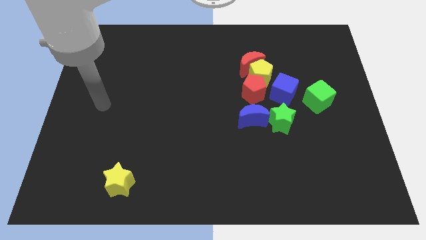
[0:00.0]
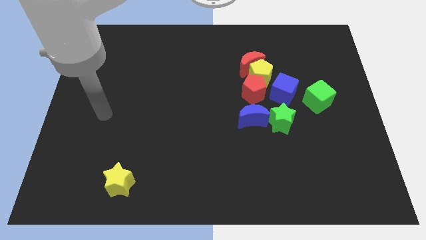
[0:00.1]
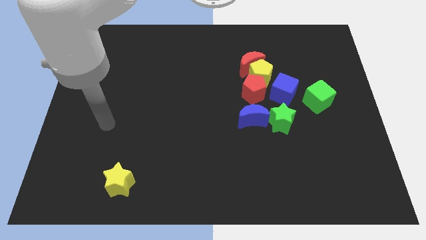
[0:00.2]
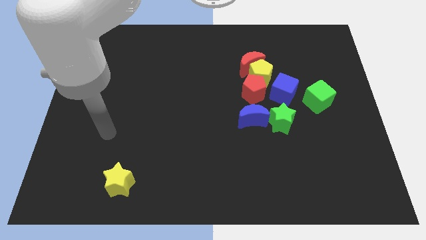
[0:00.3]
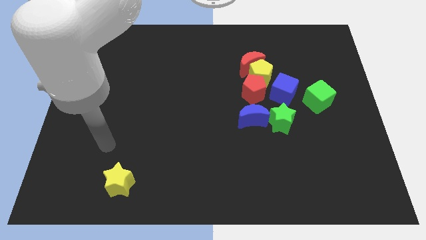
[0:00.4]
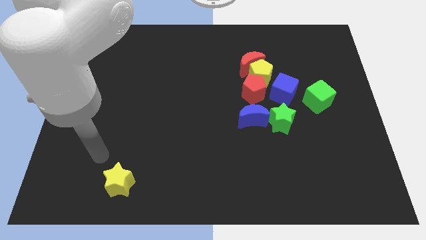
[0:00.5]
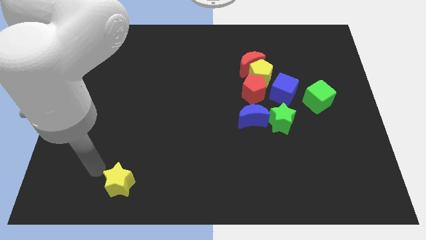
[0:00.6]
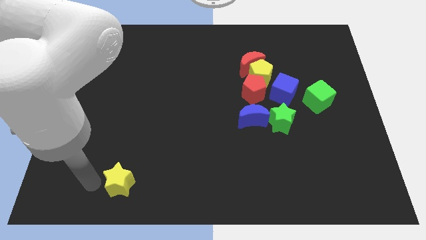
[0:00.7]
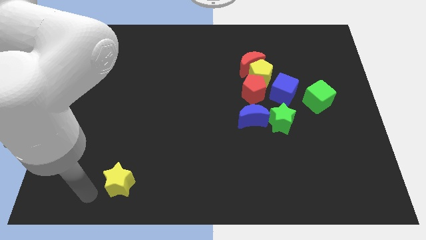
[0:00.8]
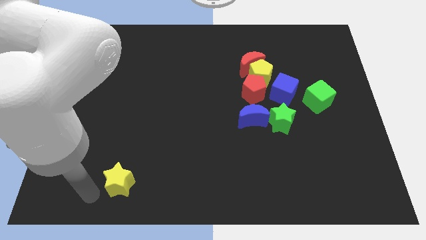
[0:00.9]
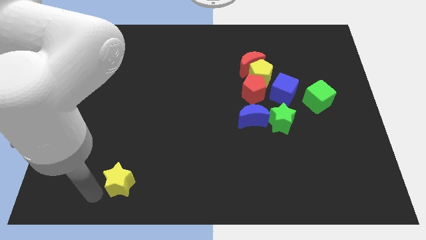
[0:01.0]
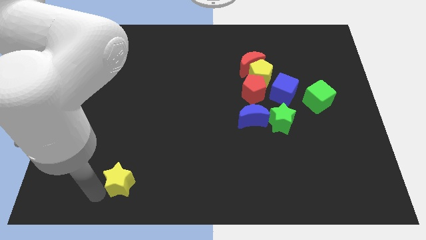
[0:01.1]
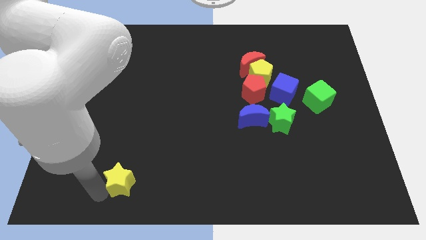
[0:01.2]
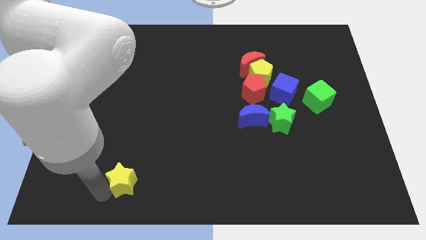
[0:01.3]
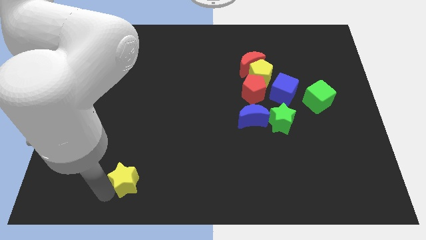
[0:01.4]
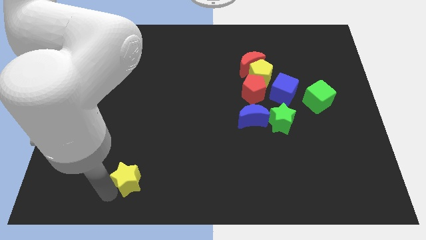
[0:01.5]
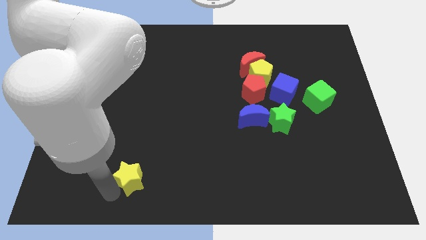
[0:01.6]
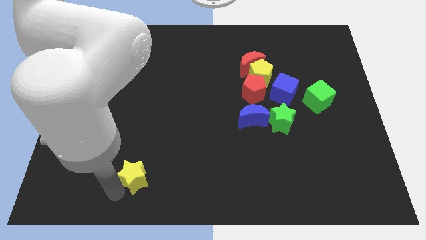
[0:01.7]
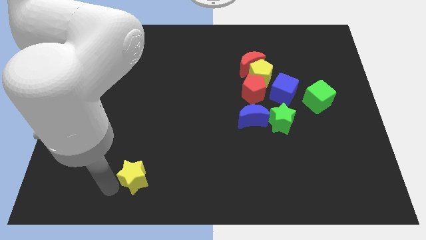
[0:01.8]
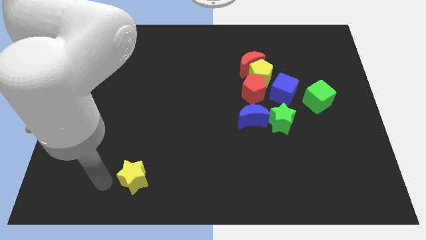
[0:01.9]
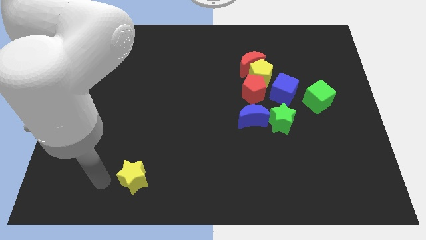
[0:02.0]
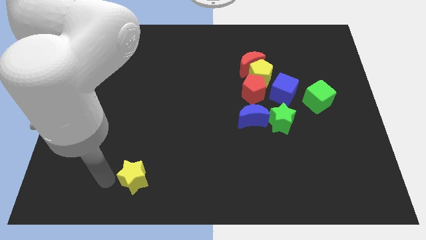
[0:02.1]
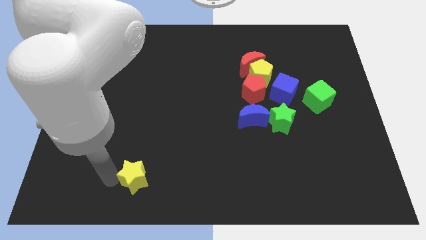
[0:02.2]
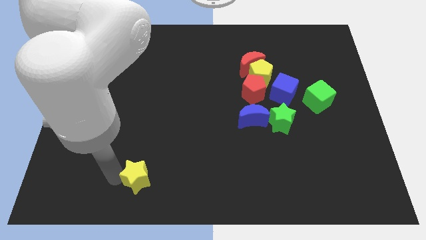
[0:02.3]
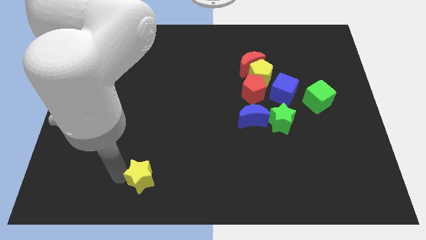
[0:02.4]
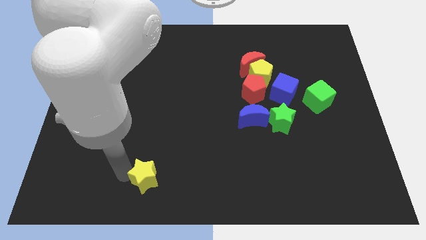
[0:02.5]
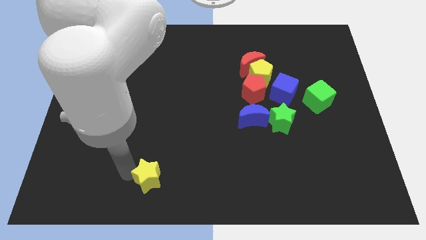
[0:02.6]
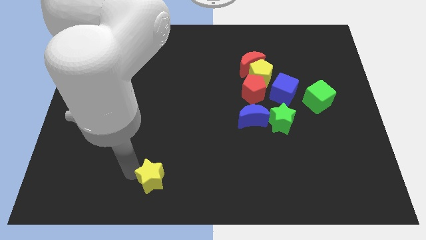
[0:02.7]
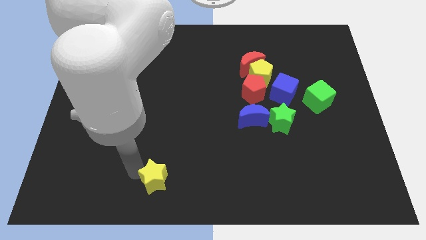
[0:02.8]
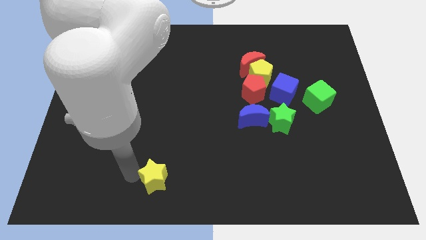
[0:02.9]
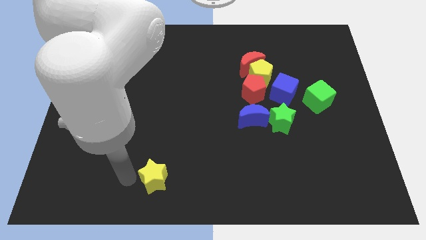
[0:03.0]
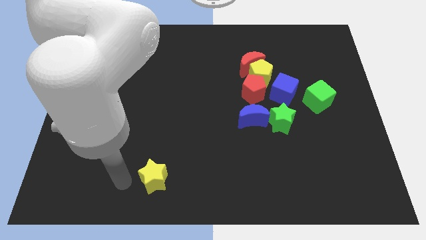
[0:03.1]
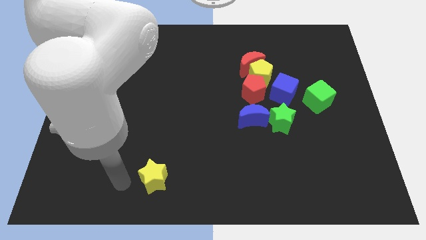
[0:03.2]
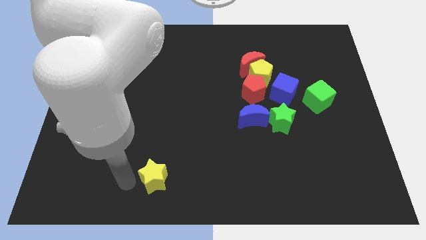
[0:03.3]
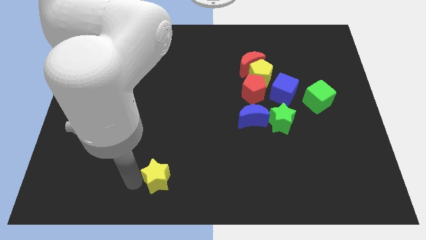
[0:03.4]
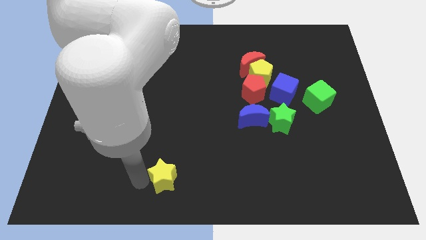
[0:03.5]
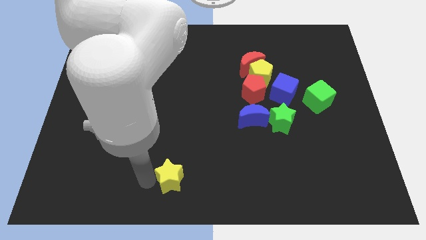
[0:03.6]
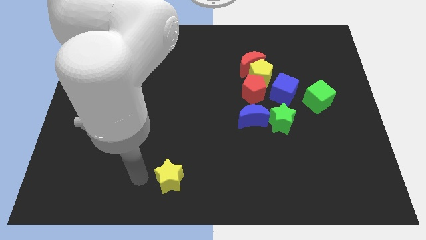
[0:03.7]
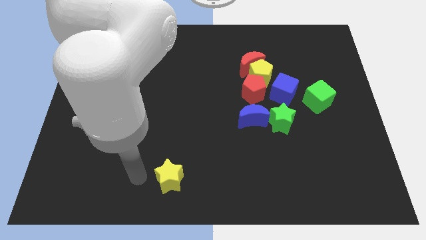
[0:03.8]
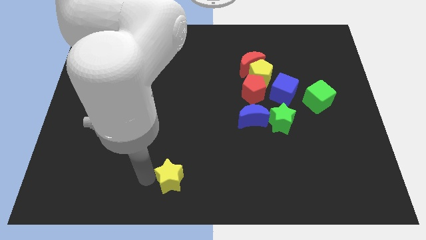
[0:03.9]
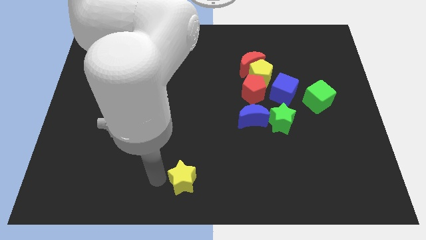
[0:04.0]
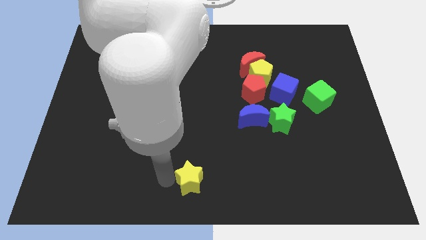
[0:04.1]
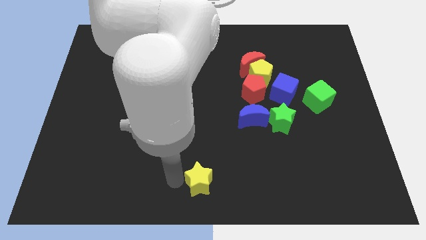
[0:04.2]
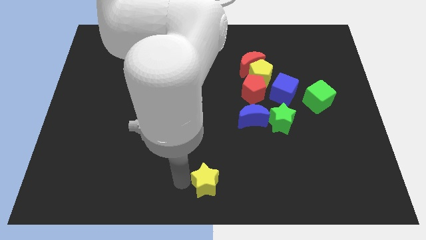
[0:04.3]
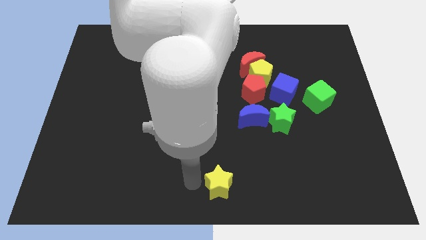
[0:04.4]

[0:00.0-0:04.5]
push the yellow star to the right

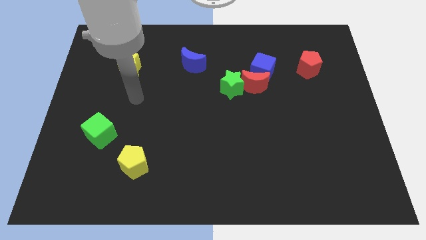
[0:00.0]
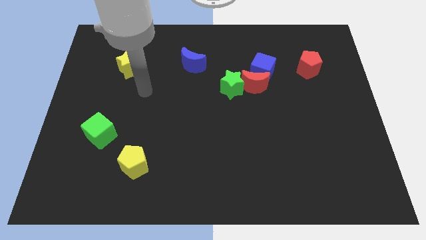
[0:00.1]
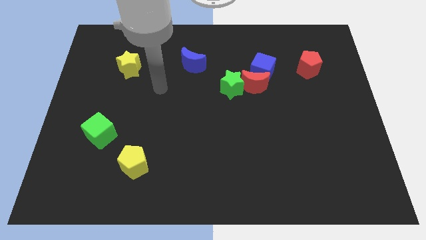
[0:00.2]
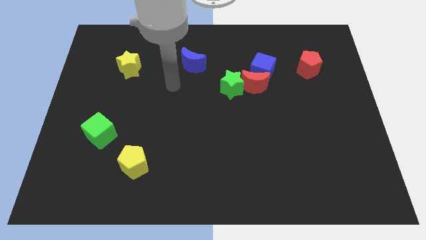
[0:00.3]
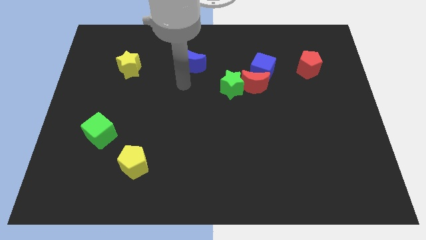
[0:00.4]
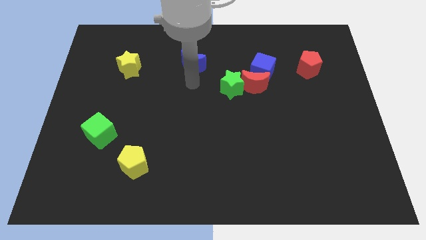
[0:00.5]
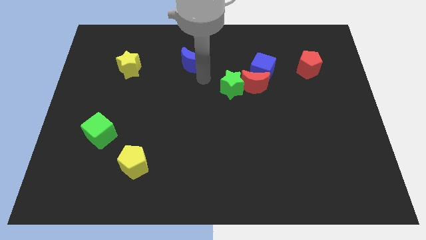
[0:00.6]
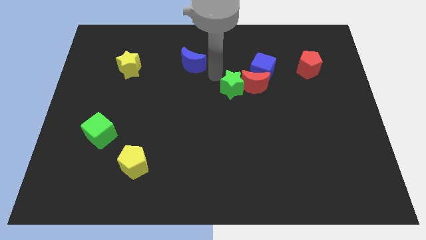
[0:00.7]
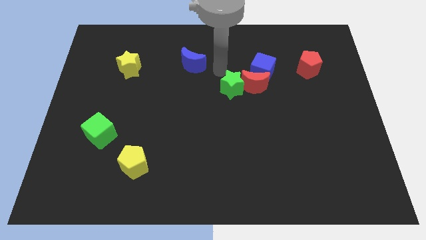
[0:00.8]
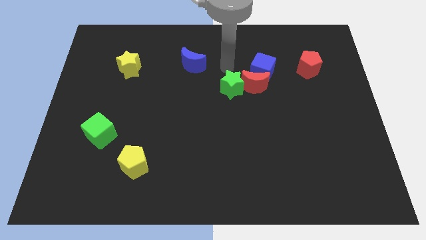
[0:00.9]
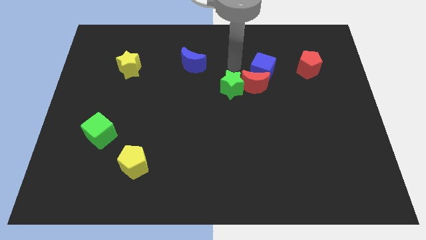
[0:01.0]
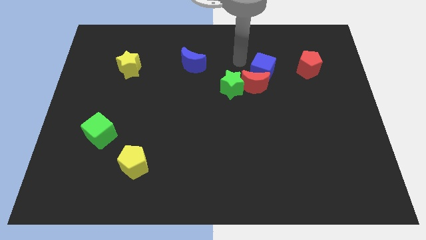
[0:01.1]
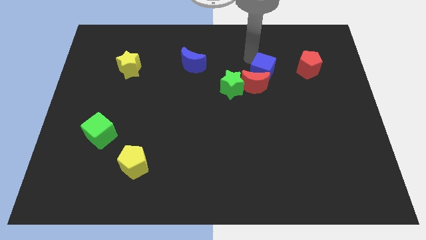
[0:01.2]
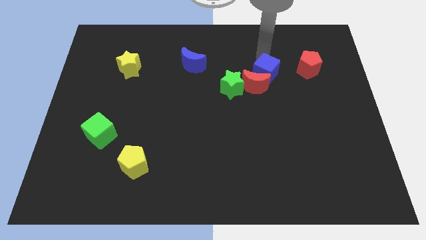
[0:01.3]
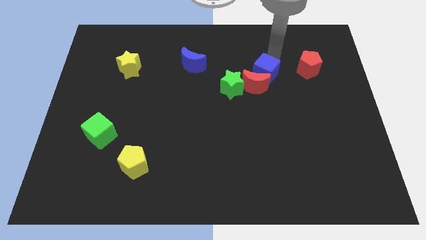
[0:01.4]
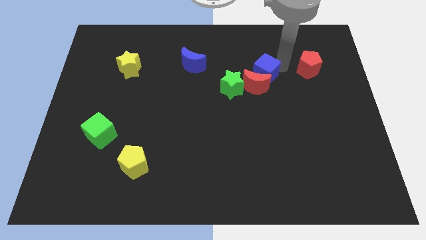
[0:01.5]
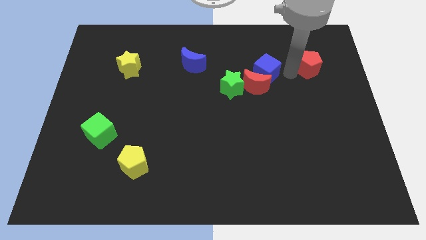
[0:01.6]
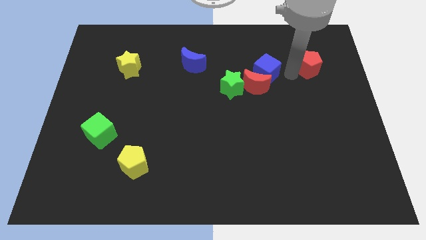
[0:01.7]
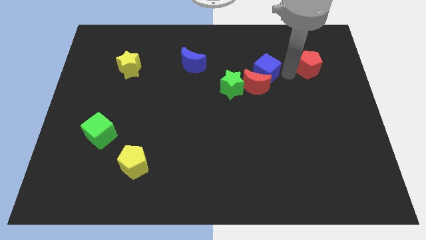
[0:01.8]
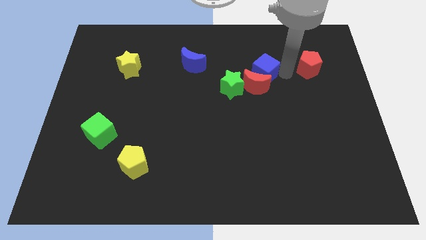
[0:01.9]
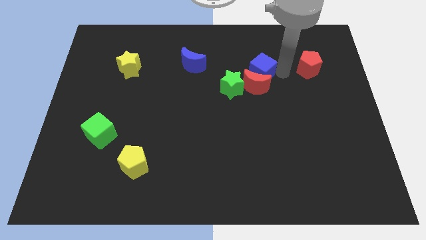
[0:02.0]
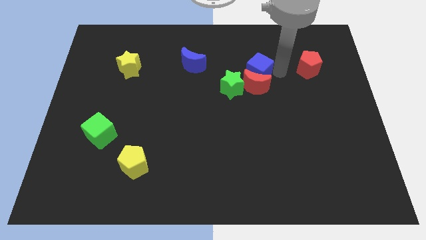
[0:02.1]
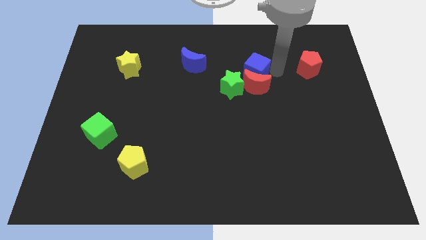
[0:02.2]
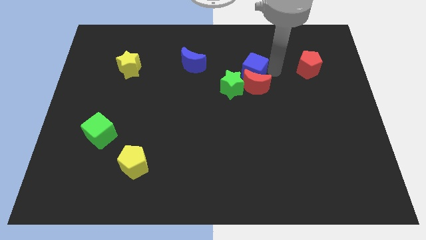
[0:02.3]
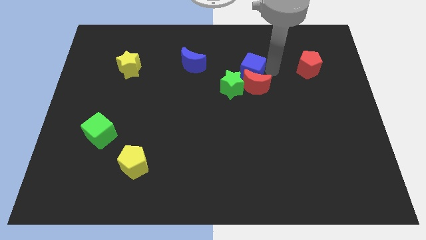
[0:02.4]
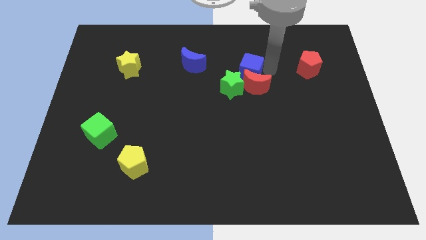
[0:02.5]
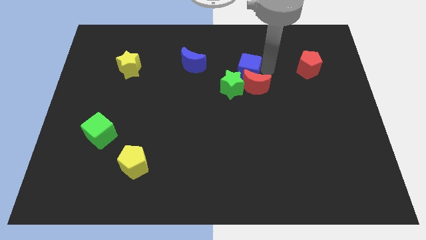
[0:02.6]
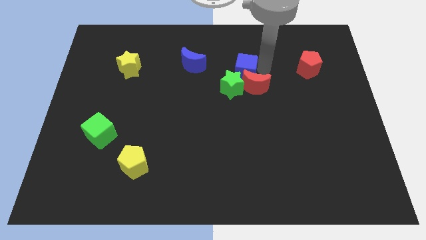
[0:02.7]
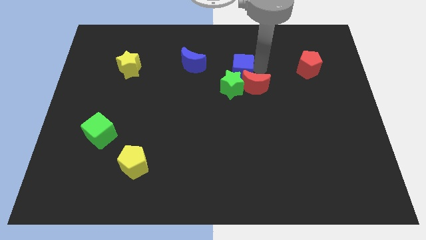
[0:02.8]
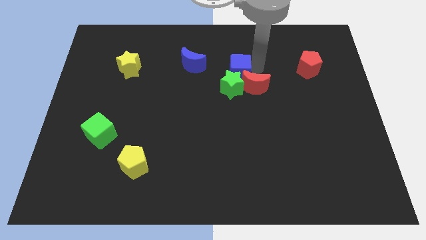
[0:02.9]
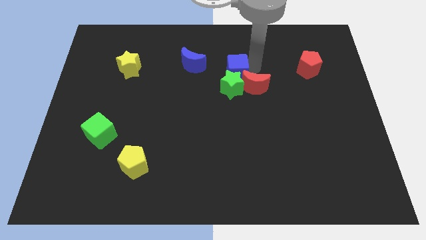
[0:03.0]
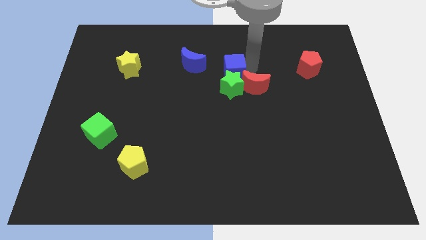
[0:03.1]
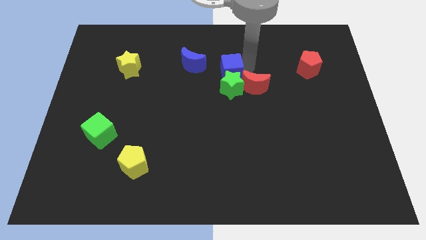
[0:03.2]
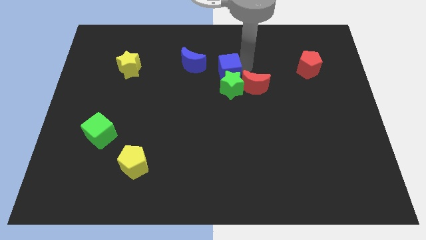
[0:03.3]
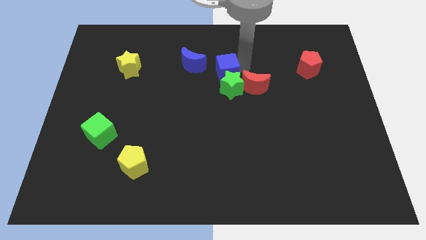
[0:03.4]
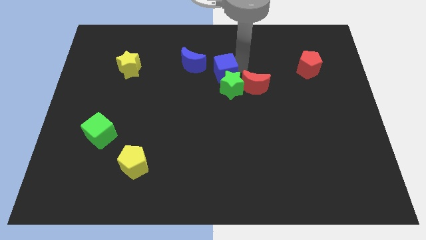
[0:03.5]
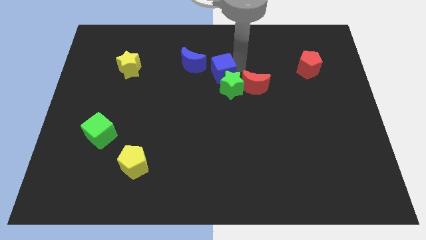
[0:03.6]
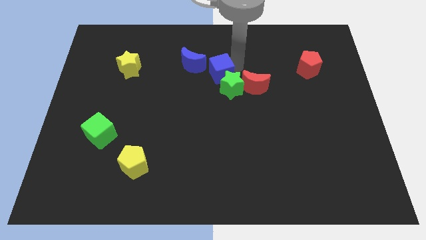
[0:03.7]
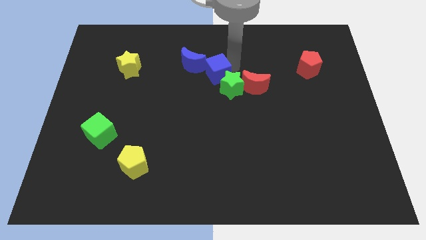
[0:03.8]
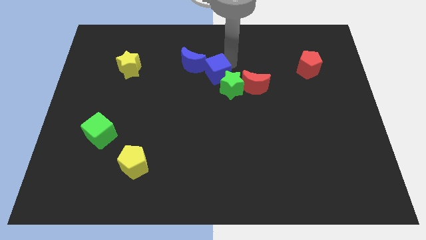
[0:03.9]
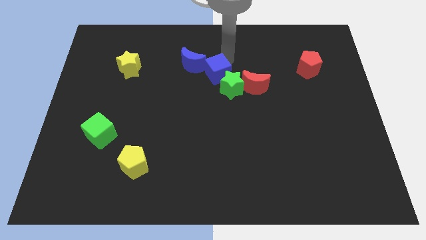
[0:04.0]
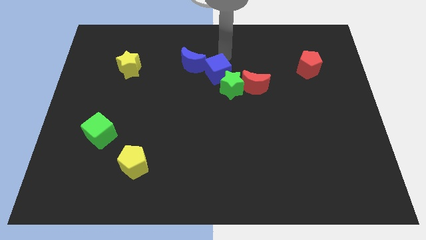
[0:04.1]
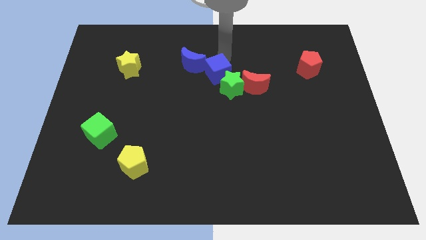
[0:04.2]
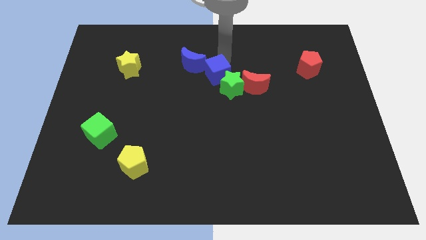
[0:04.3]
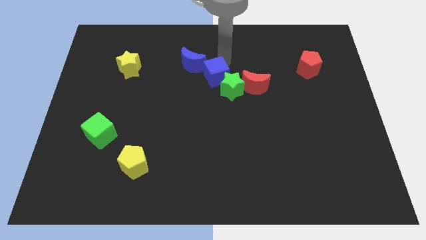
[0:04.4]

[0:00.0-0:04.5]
slightly move the blue cube downwards and then to the left
